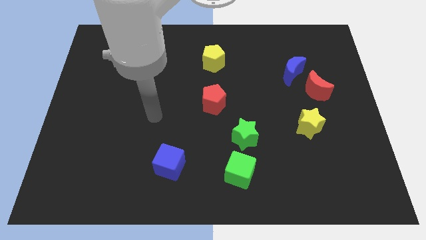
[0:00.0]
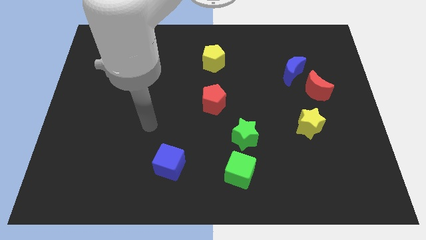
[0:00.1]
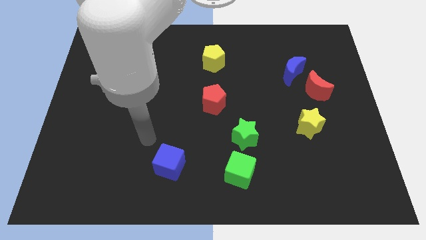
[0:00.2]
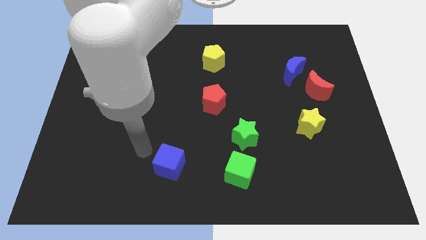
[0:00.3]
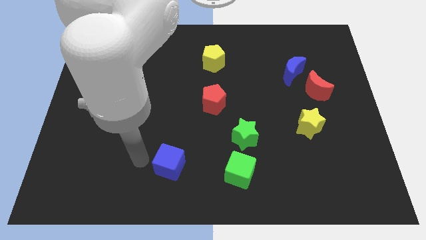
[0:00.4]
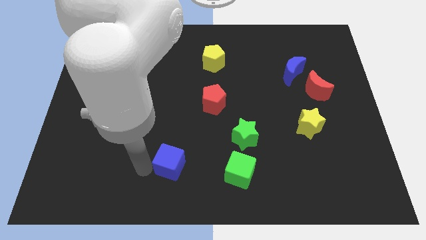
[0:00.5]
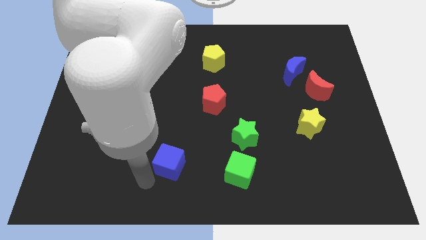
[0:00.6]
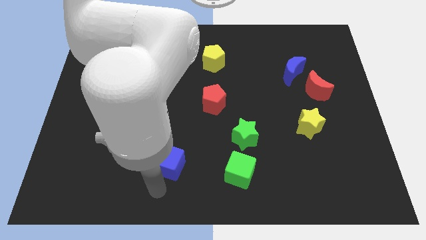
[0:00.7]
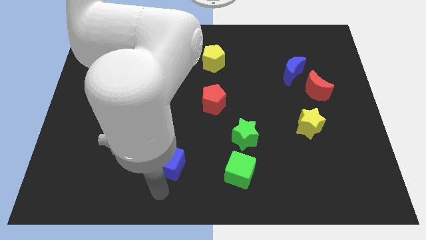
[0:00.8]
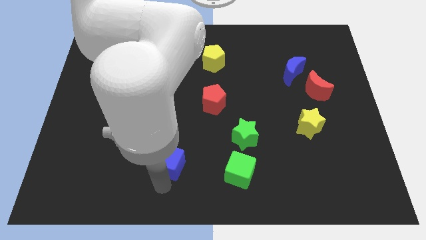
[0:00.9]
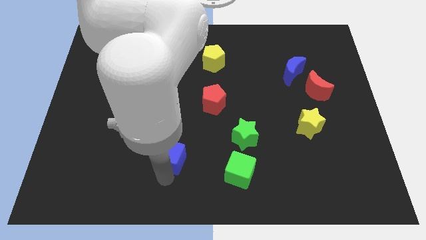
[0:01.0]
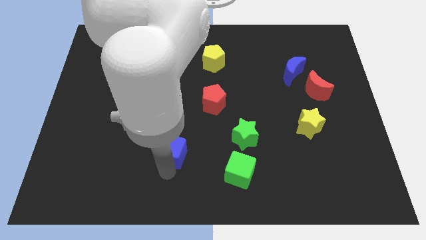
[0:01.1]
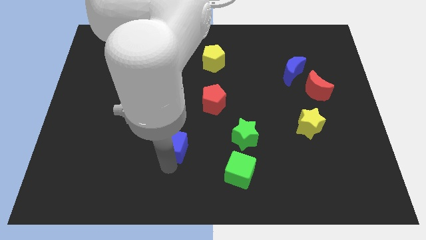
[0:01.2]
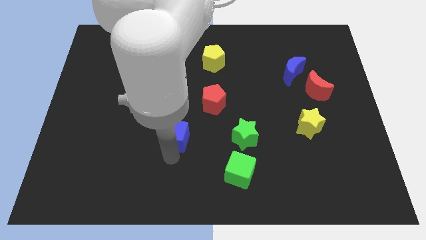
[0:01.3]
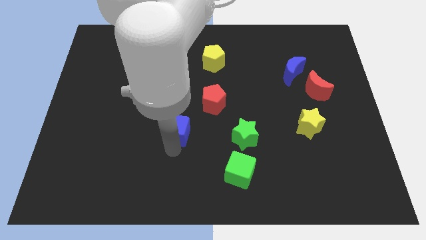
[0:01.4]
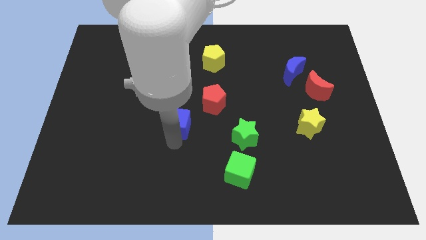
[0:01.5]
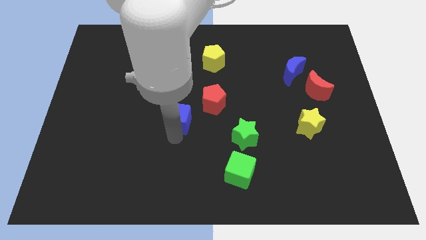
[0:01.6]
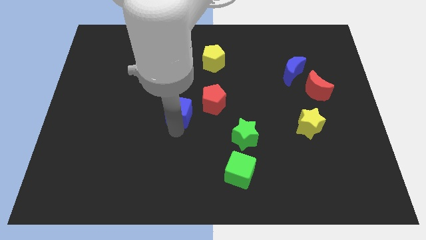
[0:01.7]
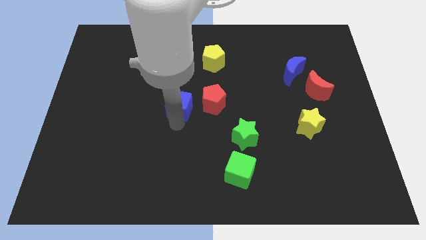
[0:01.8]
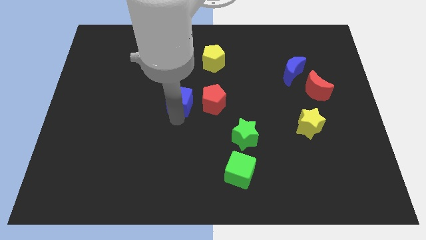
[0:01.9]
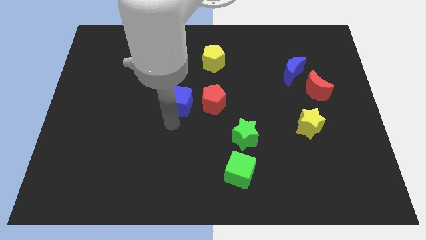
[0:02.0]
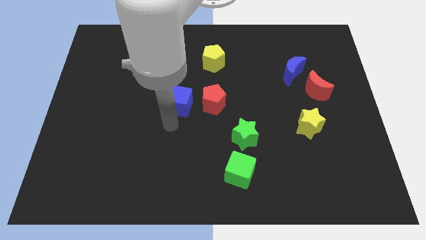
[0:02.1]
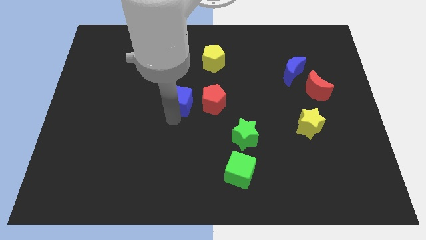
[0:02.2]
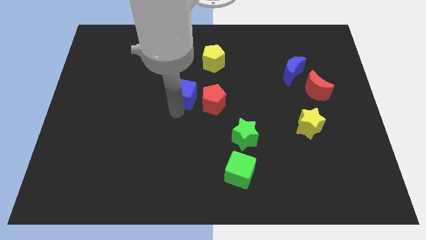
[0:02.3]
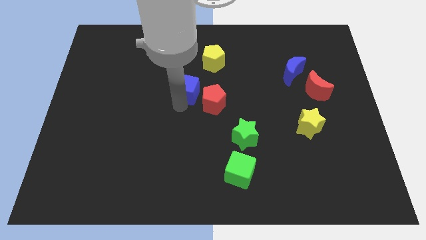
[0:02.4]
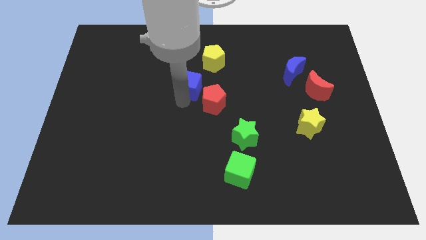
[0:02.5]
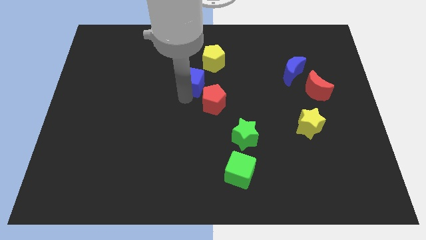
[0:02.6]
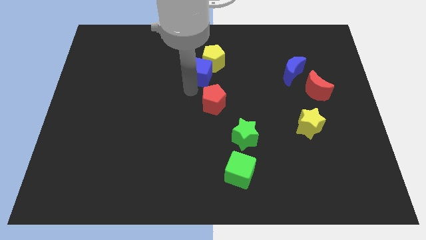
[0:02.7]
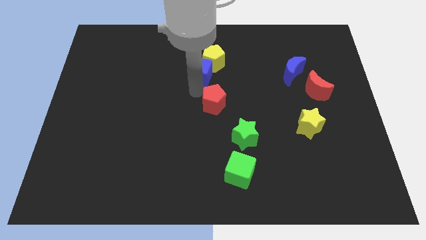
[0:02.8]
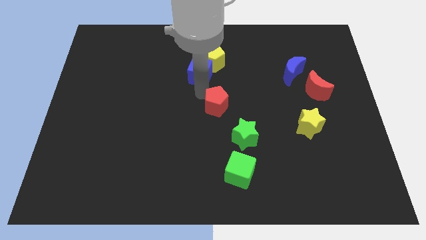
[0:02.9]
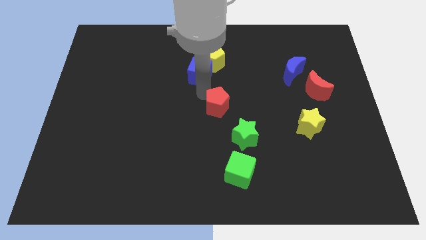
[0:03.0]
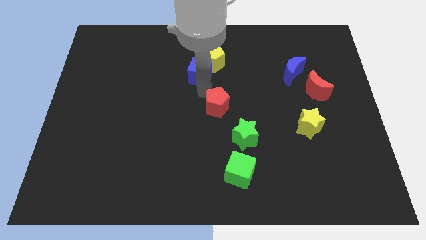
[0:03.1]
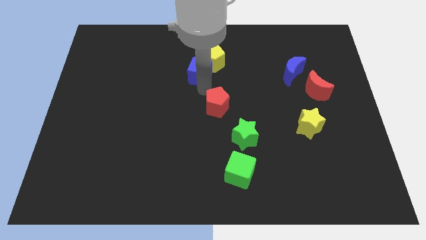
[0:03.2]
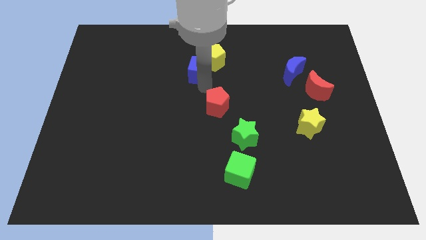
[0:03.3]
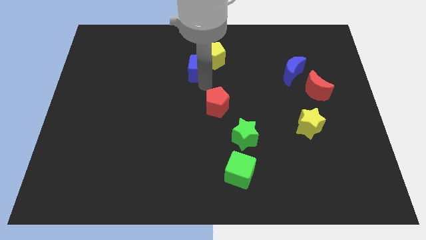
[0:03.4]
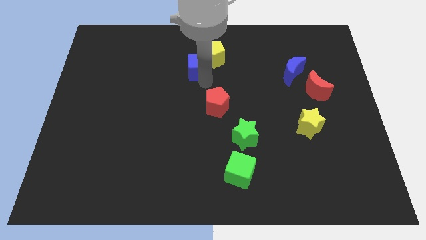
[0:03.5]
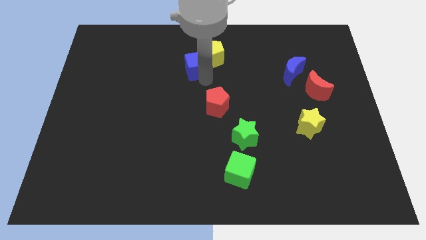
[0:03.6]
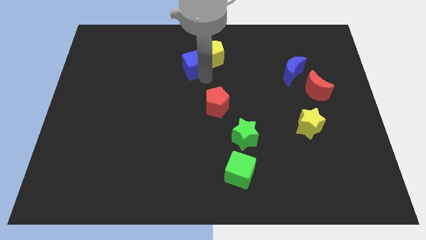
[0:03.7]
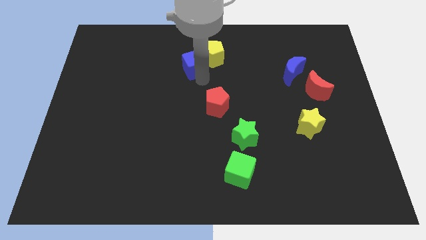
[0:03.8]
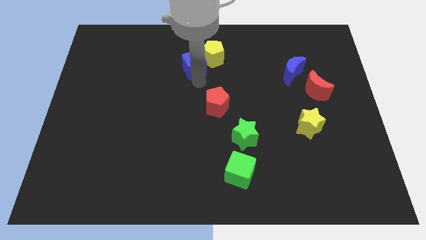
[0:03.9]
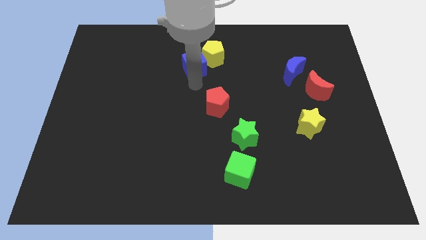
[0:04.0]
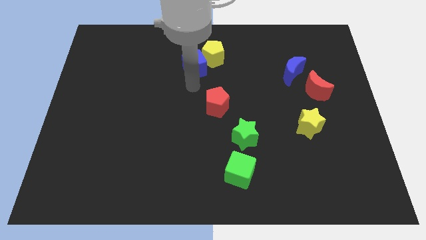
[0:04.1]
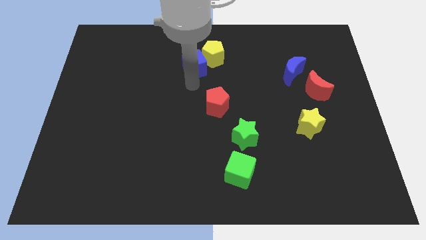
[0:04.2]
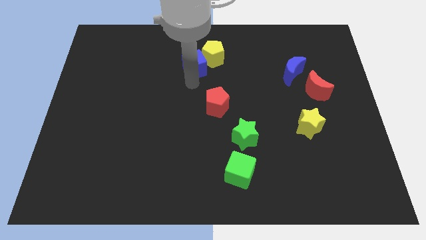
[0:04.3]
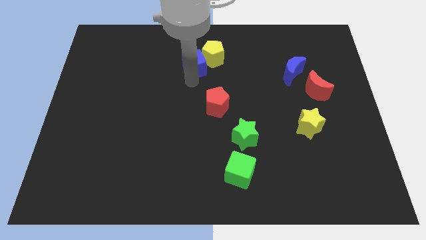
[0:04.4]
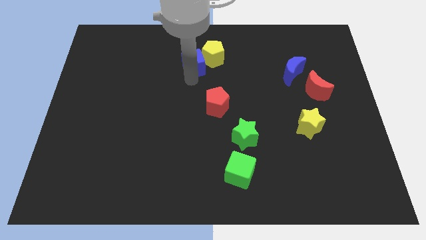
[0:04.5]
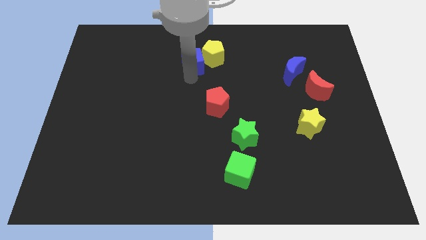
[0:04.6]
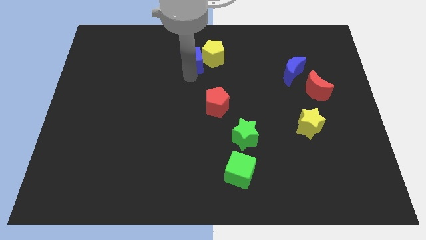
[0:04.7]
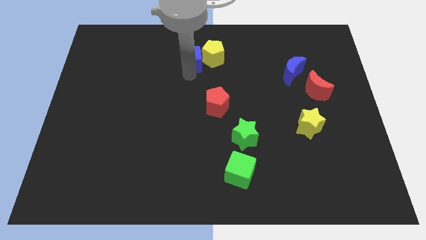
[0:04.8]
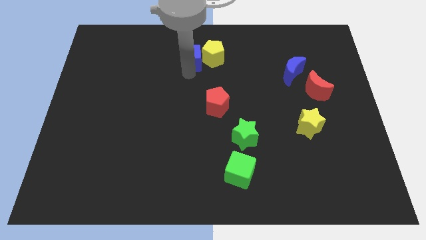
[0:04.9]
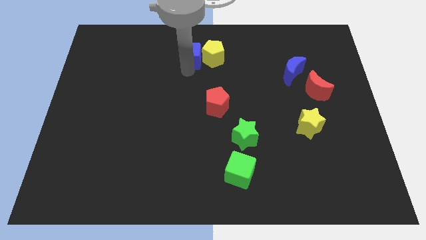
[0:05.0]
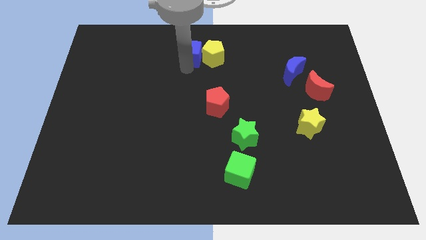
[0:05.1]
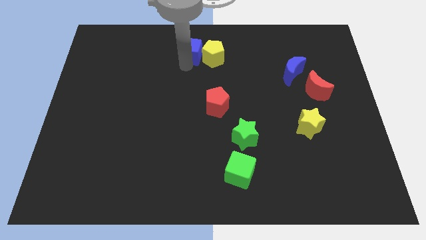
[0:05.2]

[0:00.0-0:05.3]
push the blue cube to the top side

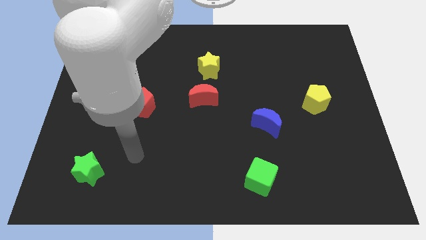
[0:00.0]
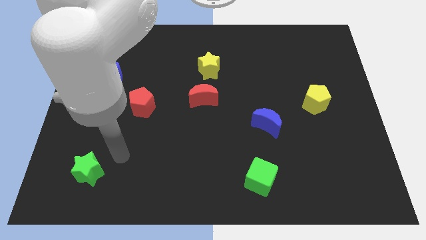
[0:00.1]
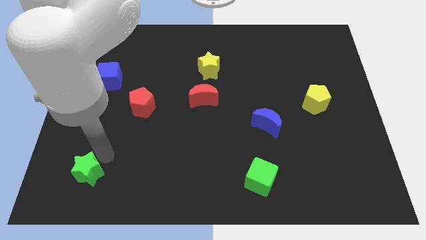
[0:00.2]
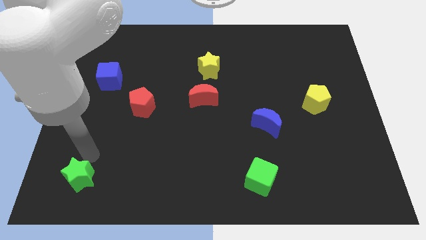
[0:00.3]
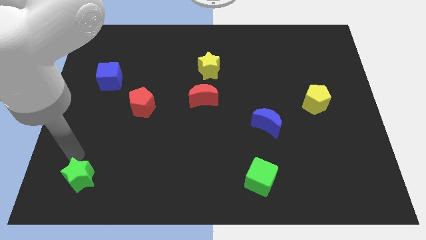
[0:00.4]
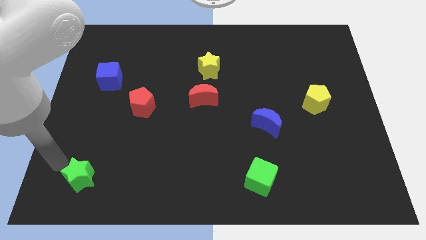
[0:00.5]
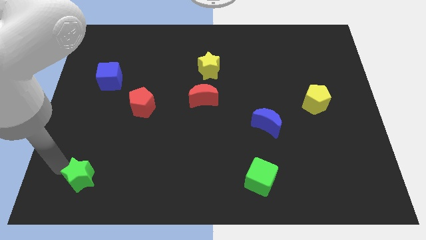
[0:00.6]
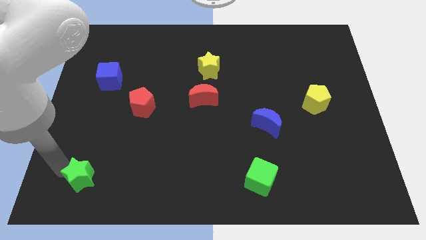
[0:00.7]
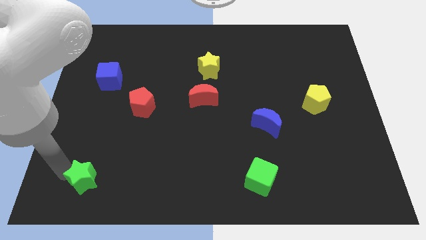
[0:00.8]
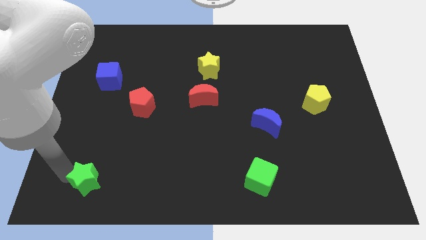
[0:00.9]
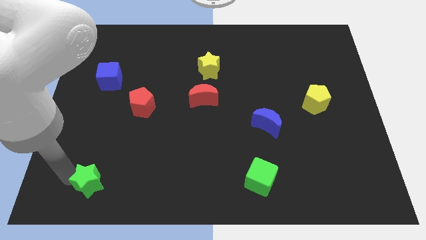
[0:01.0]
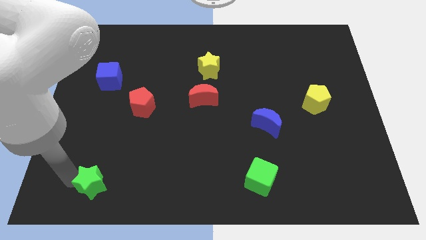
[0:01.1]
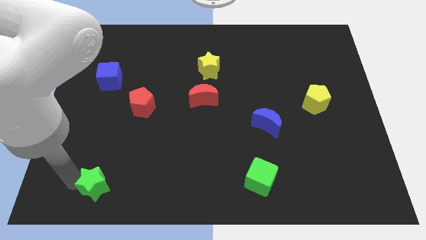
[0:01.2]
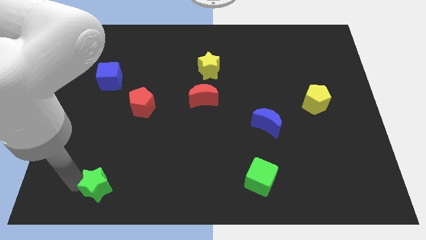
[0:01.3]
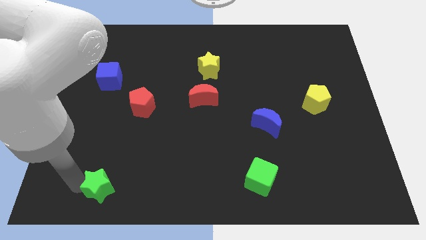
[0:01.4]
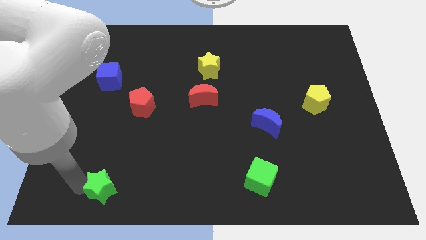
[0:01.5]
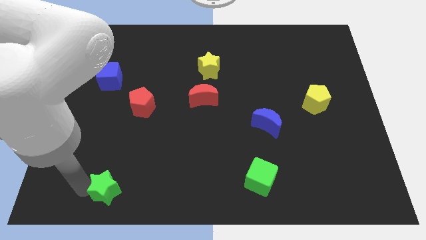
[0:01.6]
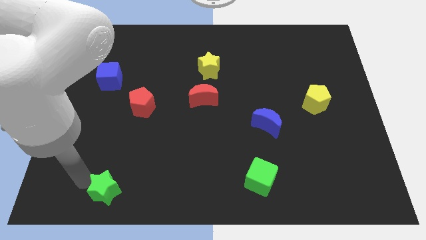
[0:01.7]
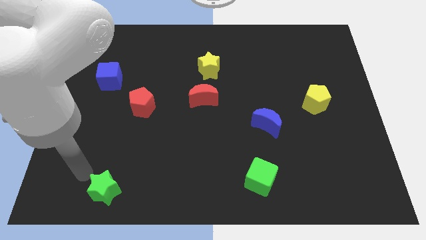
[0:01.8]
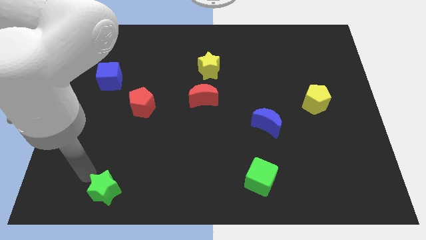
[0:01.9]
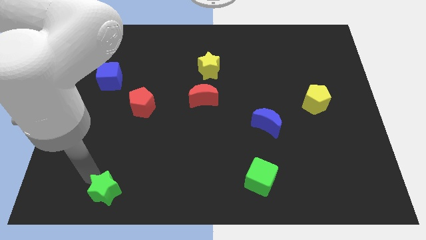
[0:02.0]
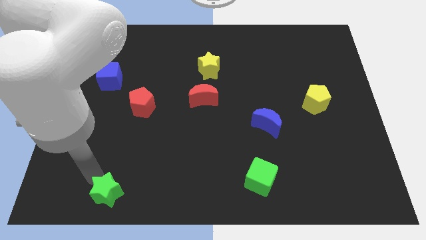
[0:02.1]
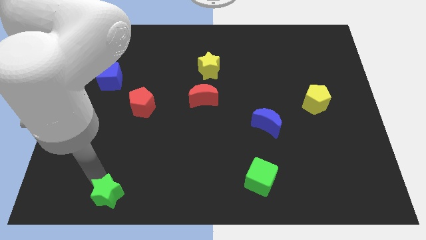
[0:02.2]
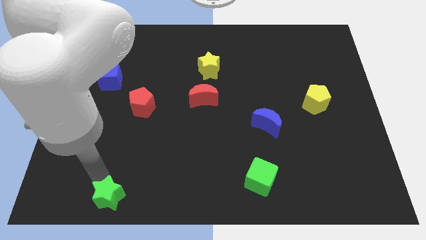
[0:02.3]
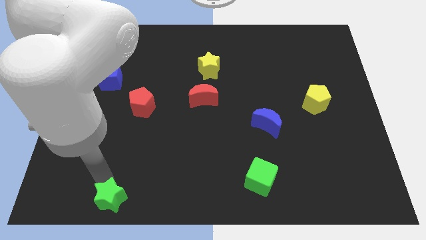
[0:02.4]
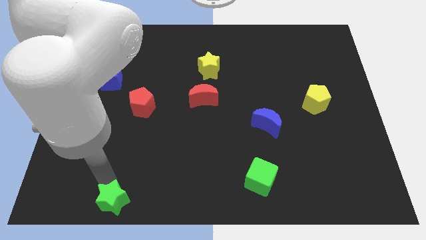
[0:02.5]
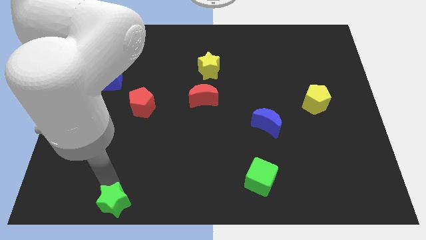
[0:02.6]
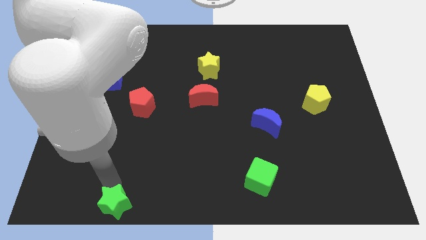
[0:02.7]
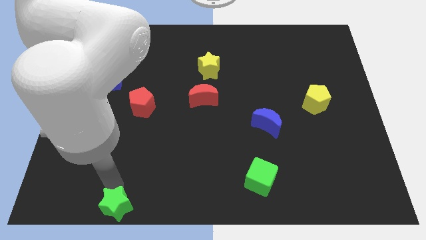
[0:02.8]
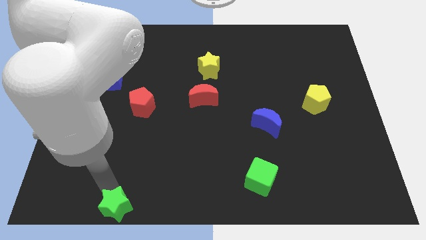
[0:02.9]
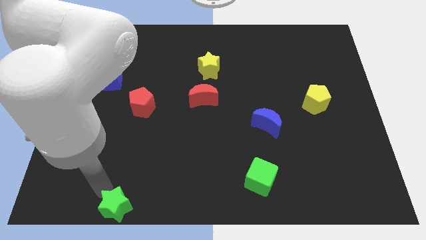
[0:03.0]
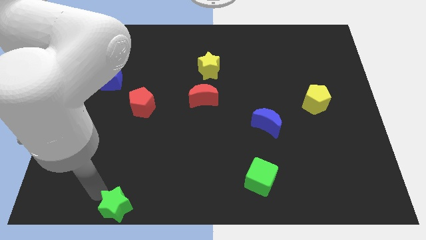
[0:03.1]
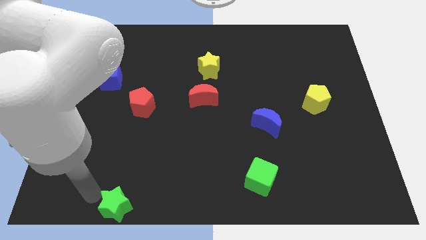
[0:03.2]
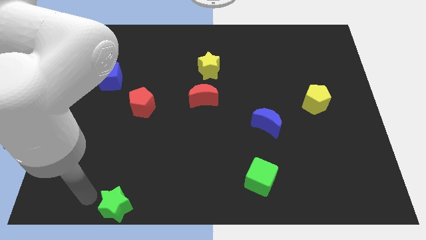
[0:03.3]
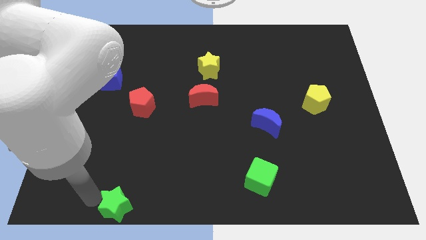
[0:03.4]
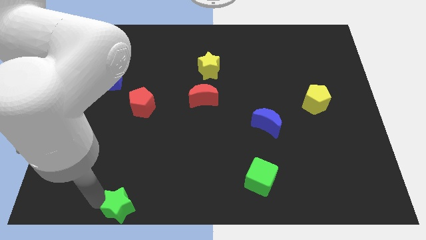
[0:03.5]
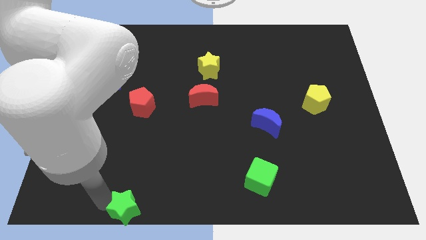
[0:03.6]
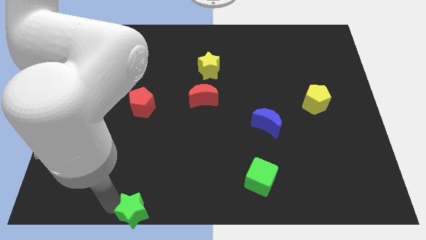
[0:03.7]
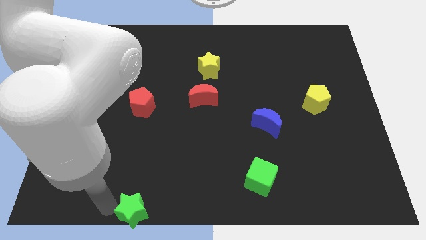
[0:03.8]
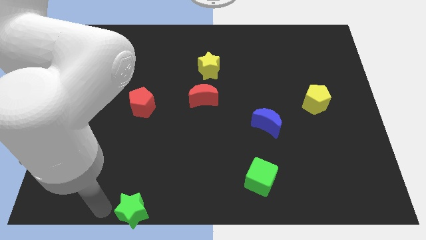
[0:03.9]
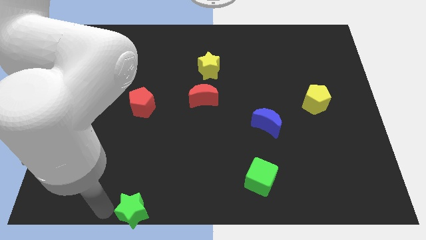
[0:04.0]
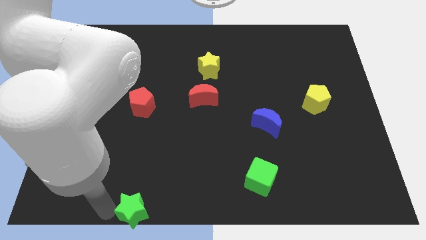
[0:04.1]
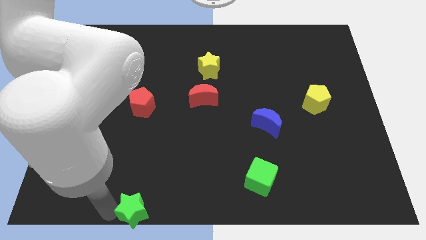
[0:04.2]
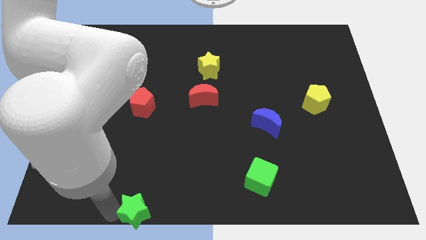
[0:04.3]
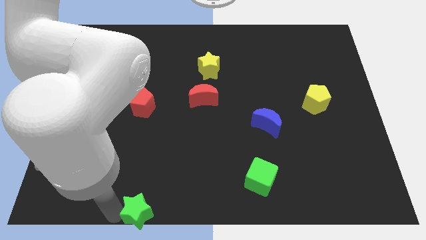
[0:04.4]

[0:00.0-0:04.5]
put the green star to the bottom side
